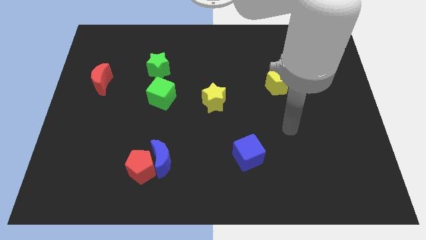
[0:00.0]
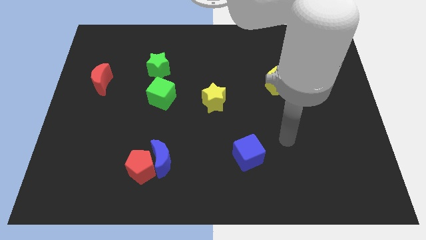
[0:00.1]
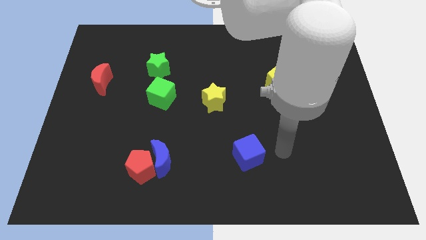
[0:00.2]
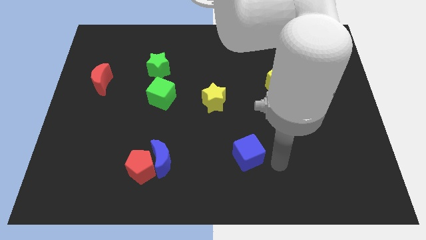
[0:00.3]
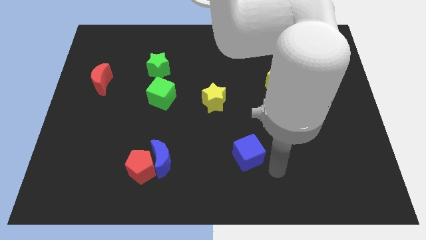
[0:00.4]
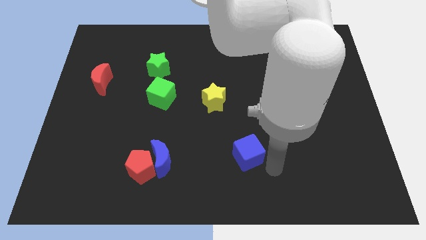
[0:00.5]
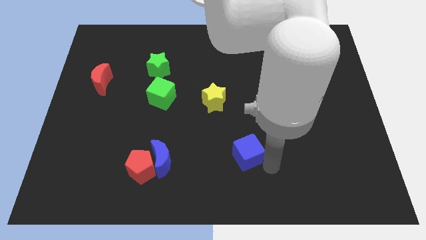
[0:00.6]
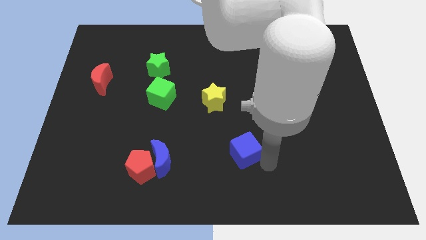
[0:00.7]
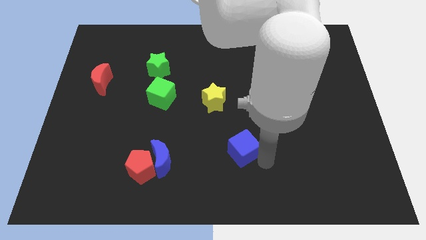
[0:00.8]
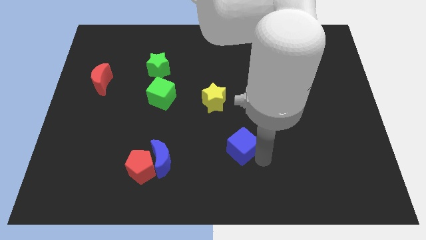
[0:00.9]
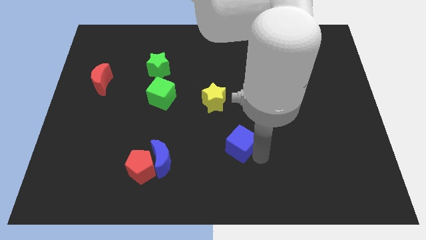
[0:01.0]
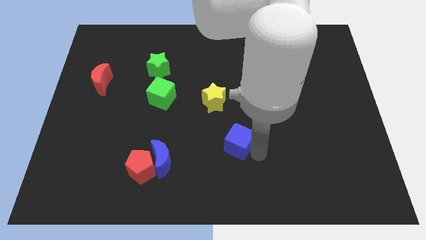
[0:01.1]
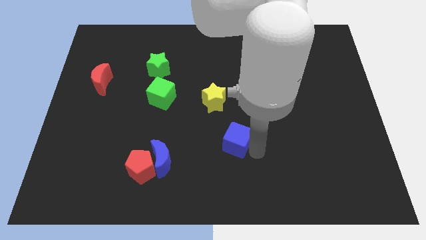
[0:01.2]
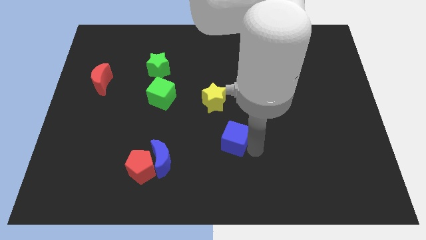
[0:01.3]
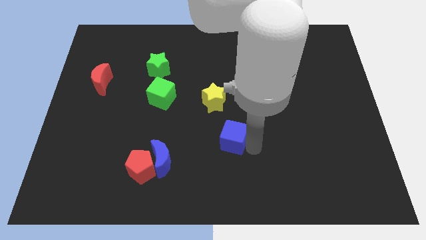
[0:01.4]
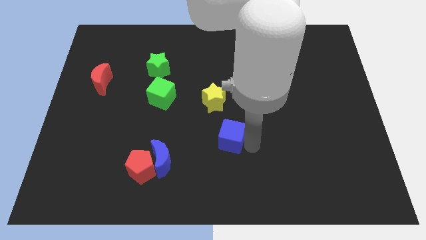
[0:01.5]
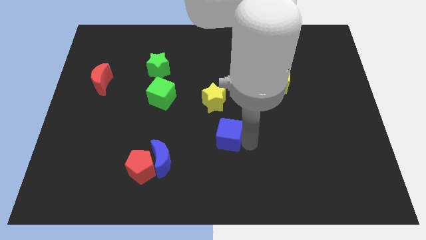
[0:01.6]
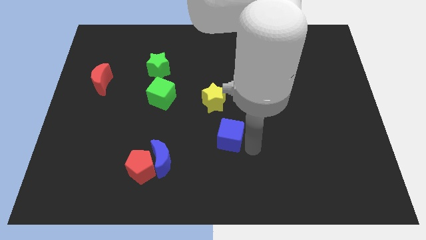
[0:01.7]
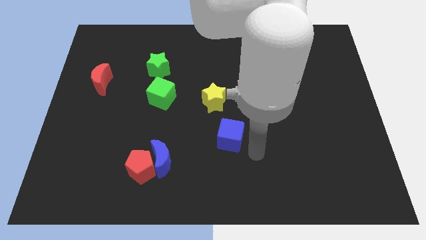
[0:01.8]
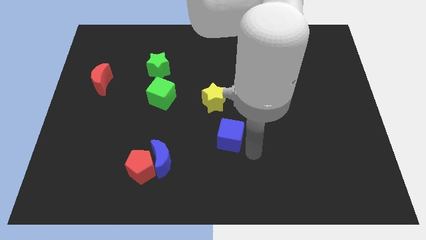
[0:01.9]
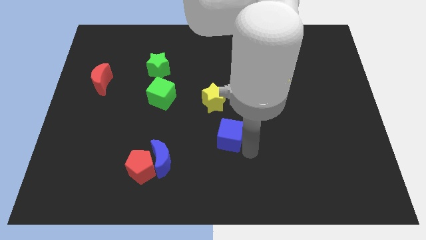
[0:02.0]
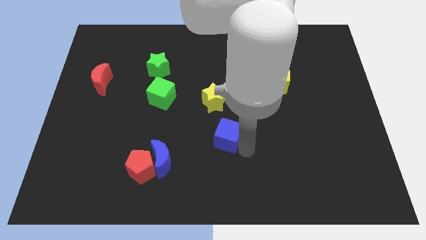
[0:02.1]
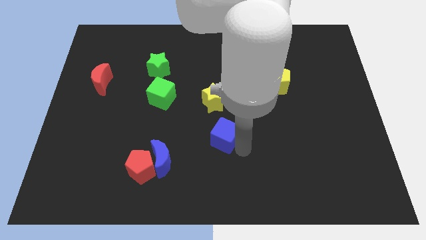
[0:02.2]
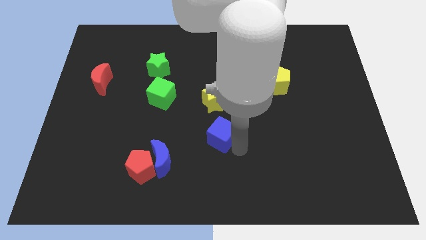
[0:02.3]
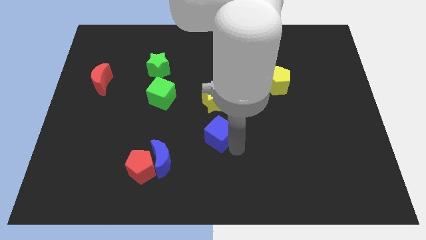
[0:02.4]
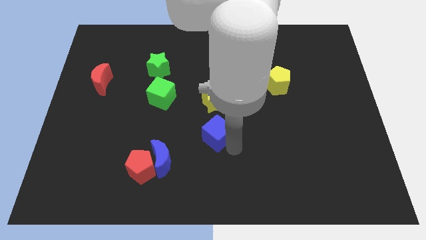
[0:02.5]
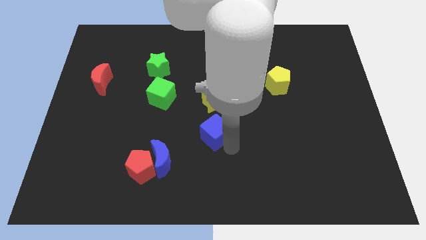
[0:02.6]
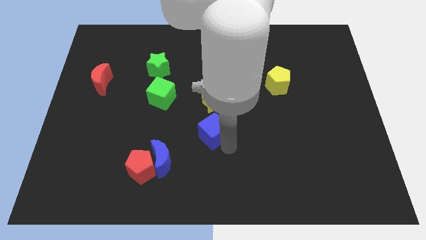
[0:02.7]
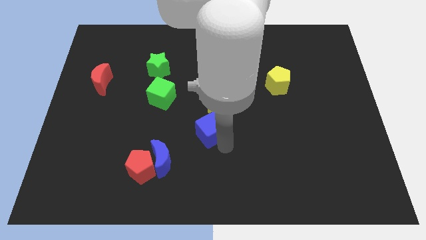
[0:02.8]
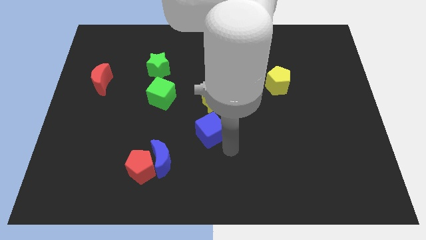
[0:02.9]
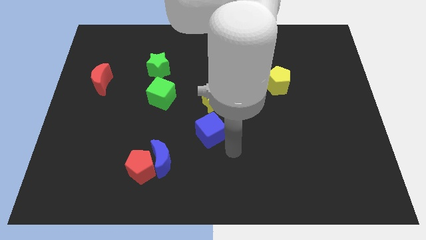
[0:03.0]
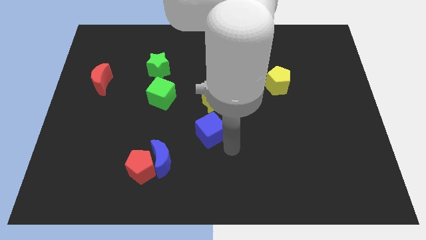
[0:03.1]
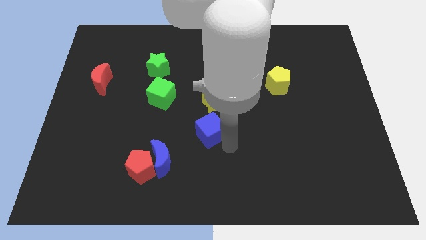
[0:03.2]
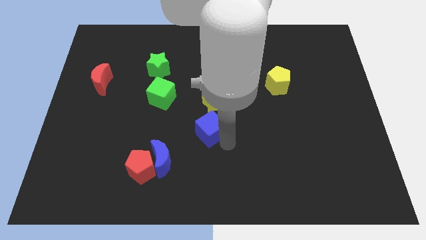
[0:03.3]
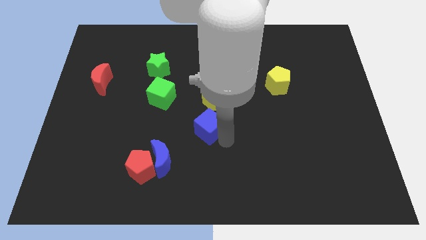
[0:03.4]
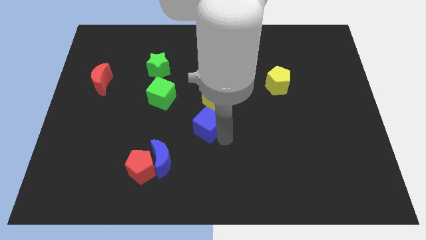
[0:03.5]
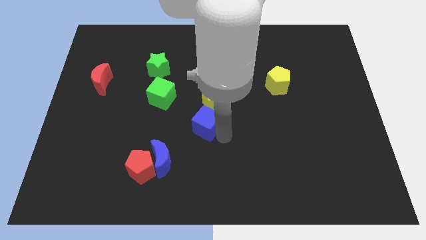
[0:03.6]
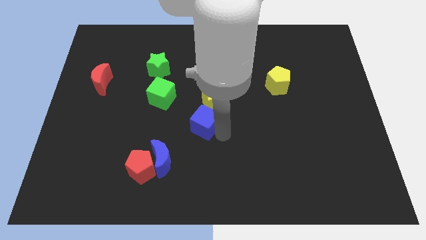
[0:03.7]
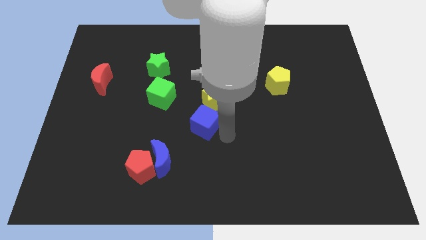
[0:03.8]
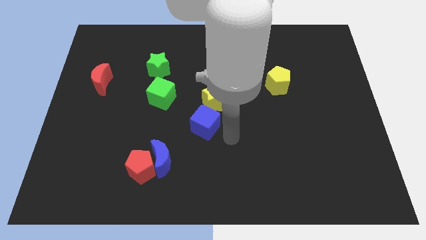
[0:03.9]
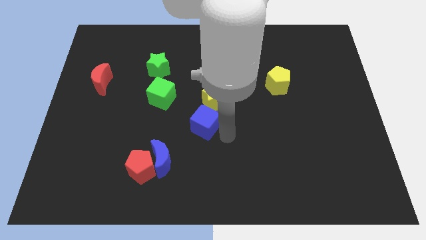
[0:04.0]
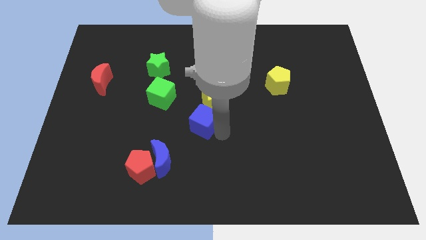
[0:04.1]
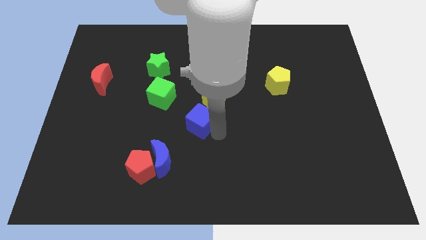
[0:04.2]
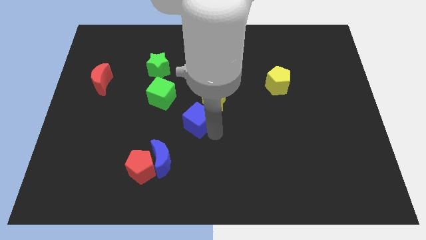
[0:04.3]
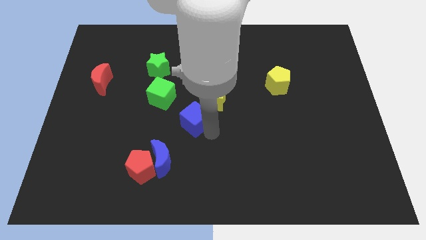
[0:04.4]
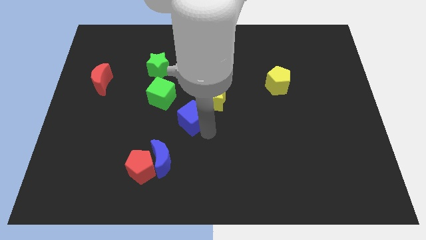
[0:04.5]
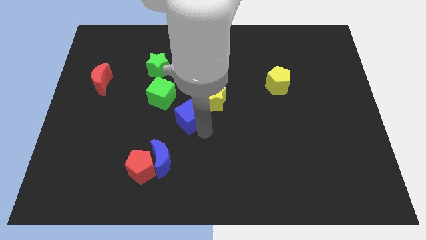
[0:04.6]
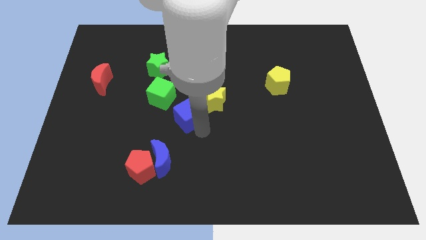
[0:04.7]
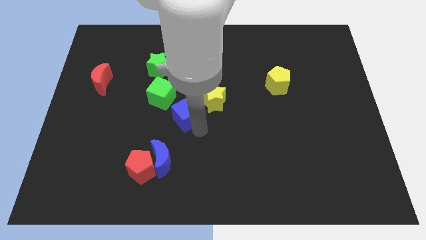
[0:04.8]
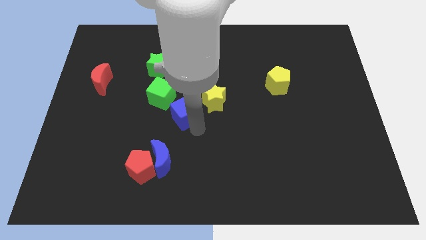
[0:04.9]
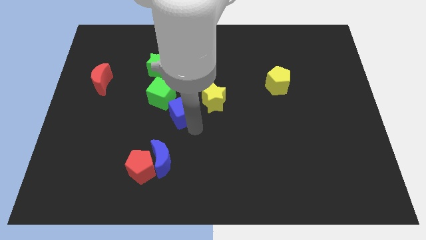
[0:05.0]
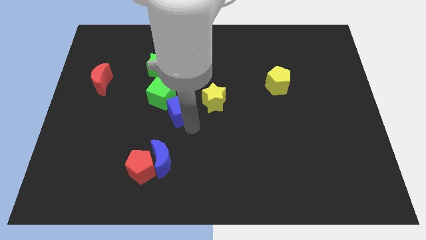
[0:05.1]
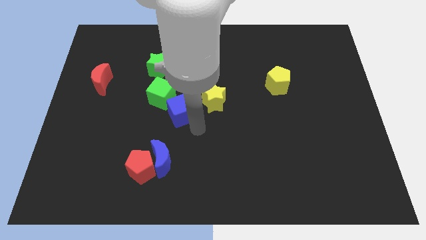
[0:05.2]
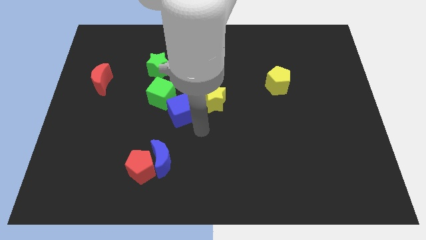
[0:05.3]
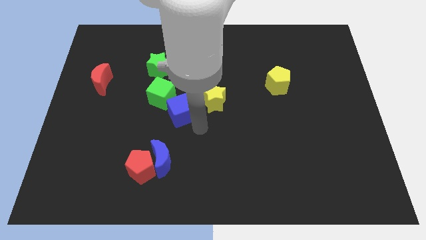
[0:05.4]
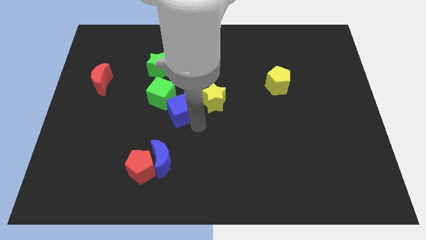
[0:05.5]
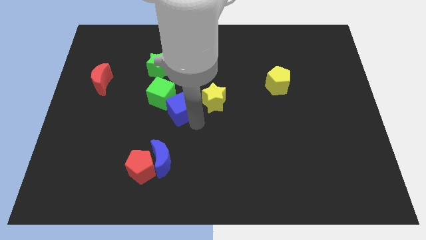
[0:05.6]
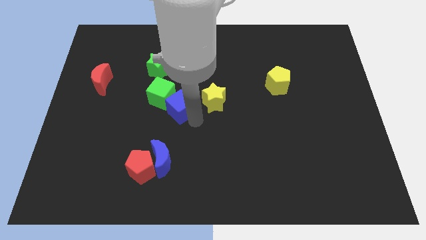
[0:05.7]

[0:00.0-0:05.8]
push the blue cube next to the green cube

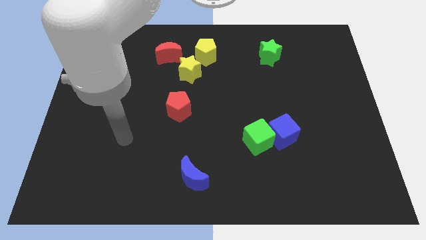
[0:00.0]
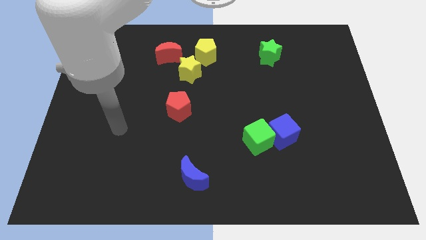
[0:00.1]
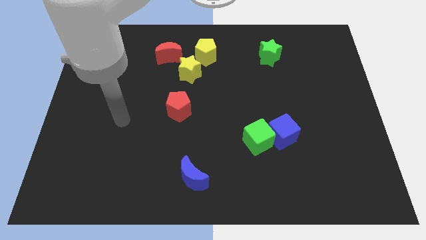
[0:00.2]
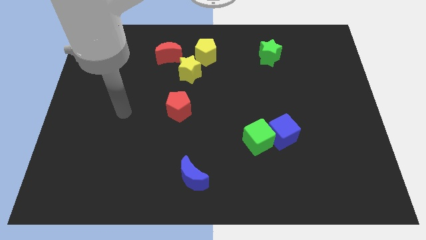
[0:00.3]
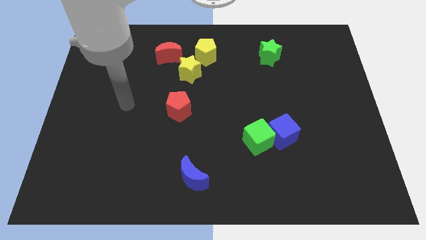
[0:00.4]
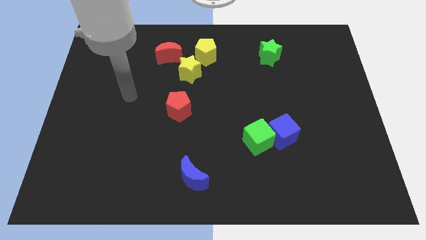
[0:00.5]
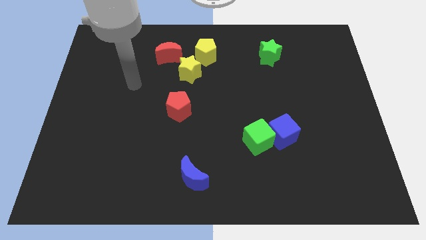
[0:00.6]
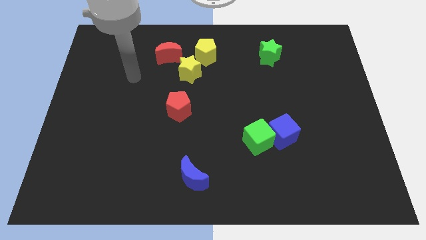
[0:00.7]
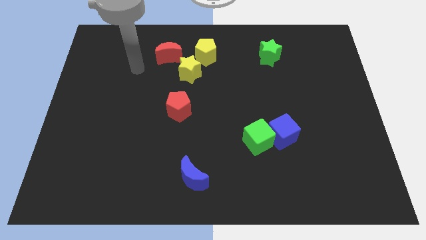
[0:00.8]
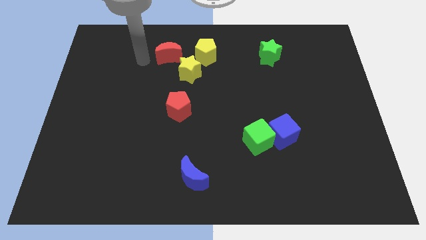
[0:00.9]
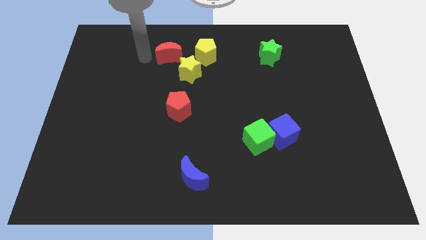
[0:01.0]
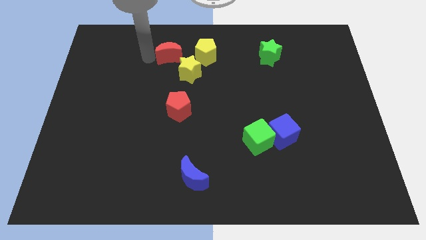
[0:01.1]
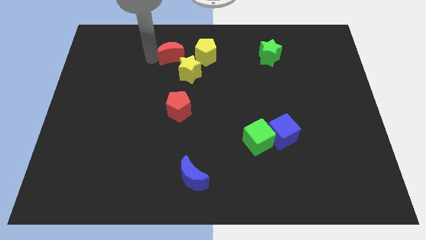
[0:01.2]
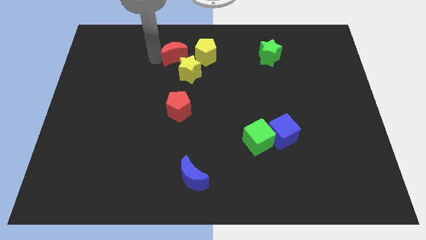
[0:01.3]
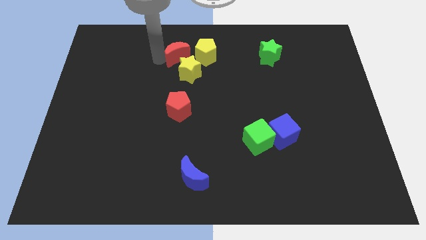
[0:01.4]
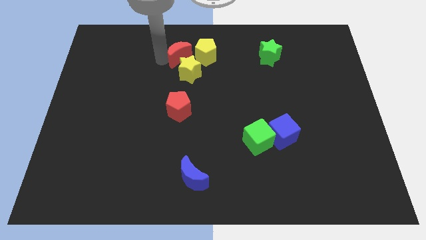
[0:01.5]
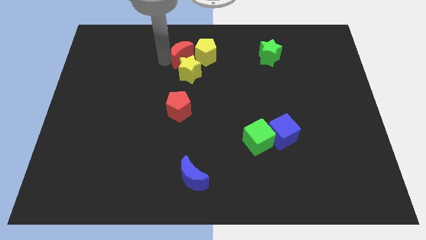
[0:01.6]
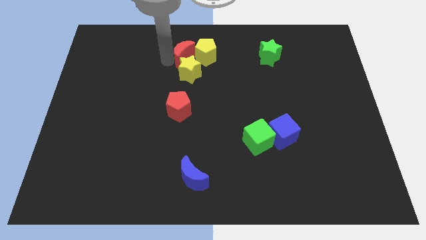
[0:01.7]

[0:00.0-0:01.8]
move the red moon close to the yellow pentagon
